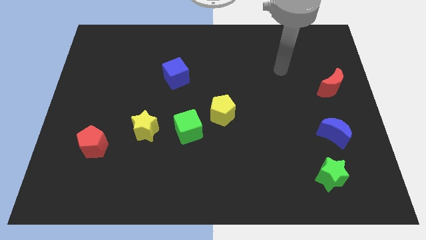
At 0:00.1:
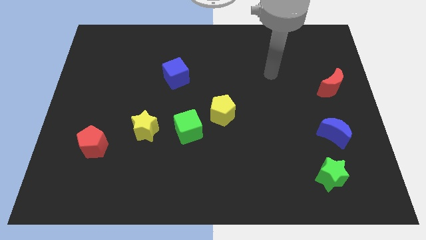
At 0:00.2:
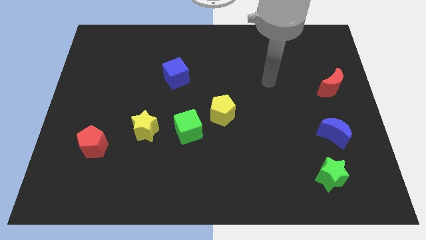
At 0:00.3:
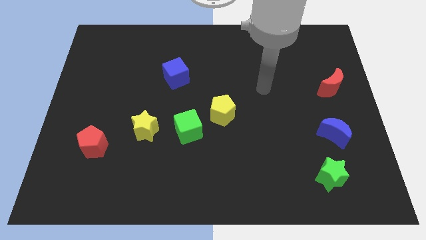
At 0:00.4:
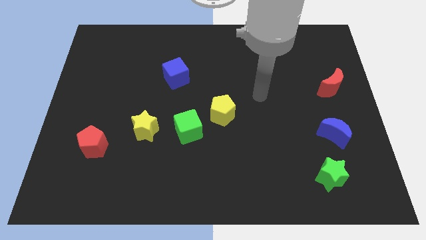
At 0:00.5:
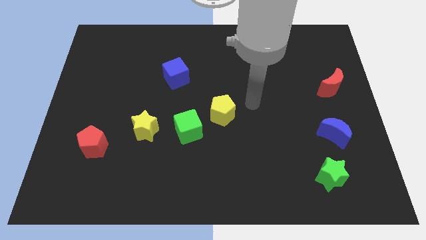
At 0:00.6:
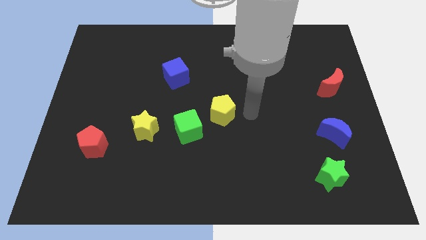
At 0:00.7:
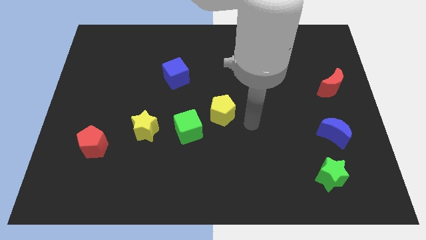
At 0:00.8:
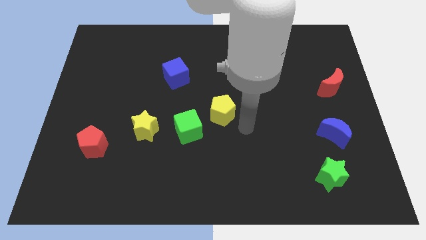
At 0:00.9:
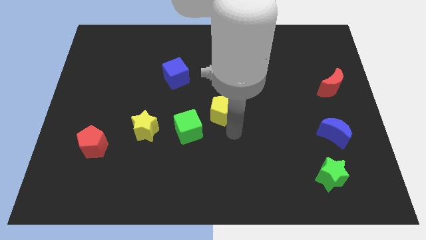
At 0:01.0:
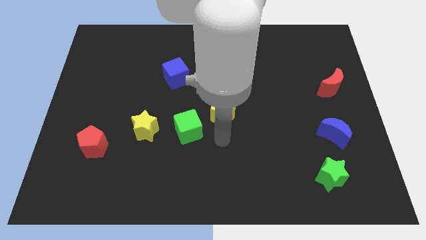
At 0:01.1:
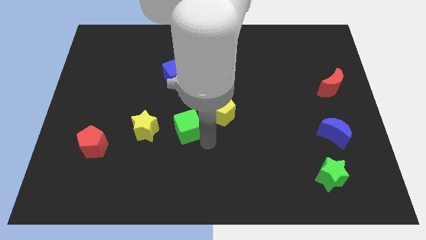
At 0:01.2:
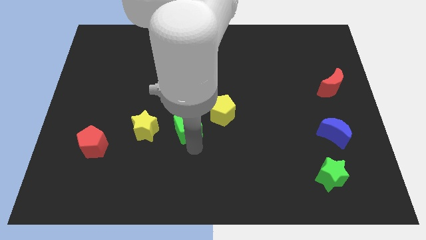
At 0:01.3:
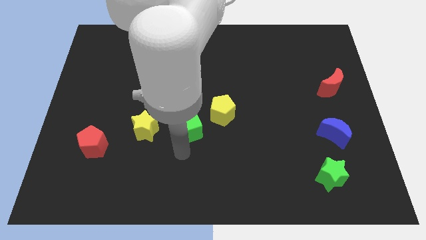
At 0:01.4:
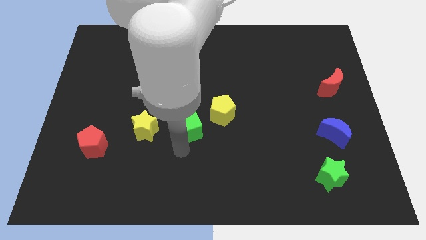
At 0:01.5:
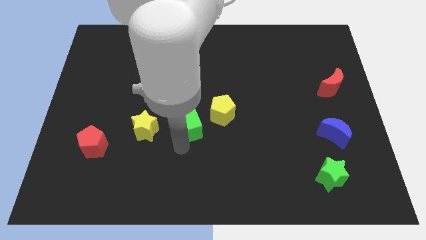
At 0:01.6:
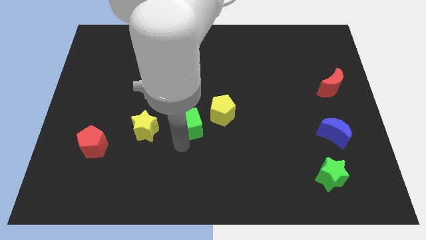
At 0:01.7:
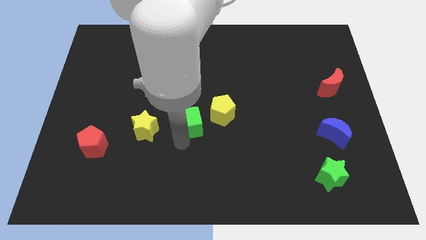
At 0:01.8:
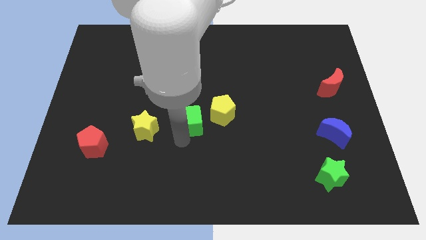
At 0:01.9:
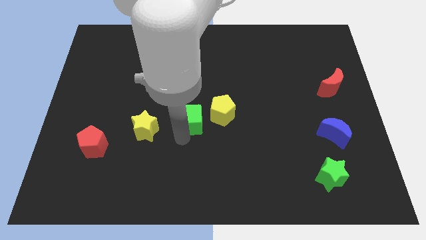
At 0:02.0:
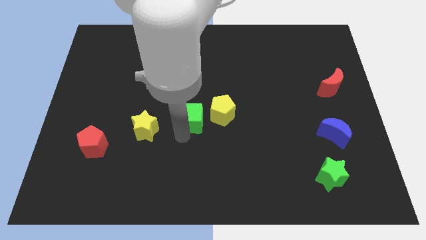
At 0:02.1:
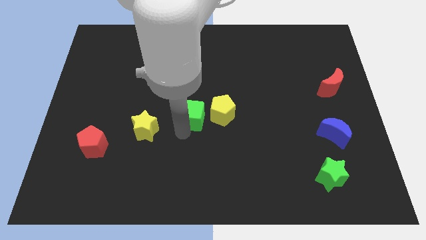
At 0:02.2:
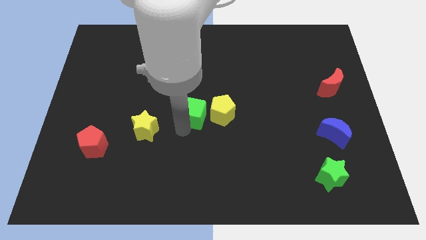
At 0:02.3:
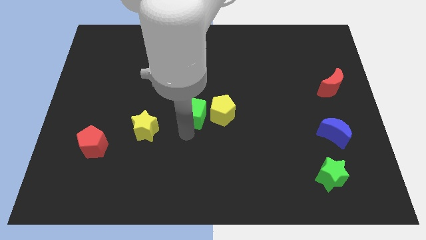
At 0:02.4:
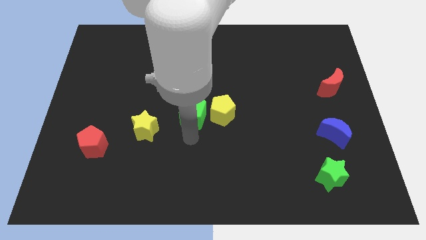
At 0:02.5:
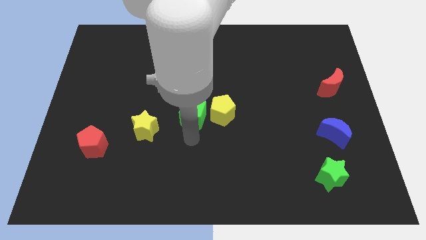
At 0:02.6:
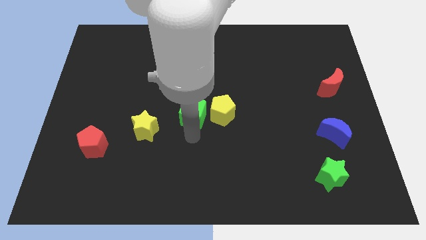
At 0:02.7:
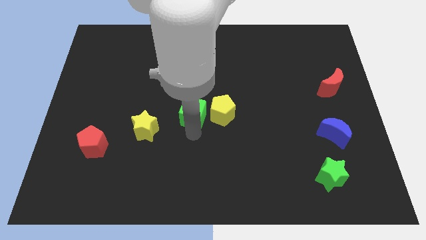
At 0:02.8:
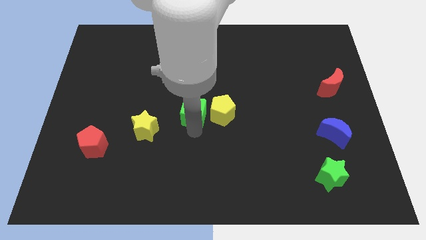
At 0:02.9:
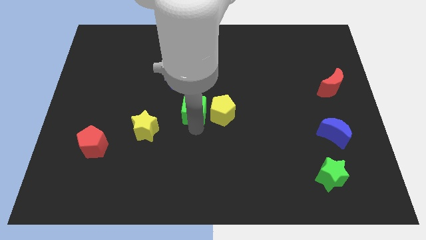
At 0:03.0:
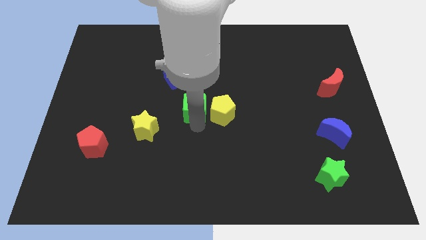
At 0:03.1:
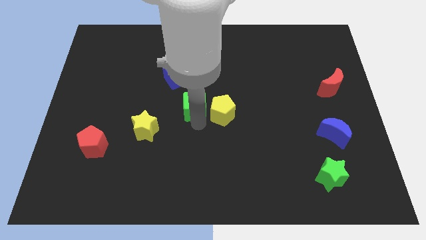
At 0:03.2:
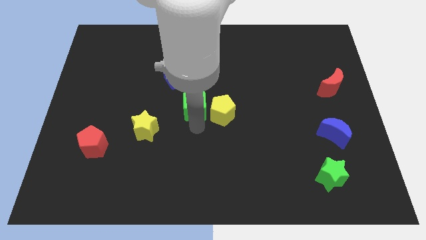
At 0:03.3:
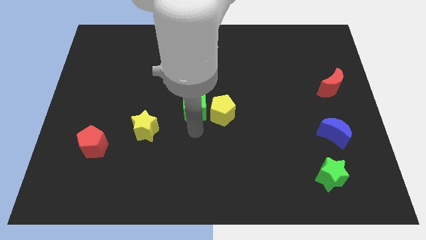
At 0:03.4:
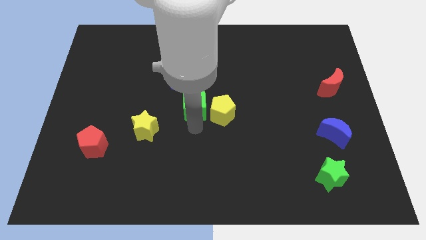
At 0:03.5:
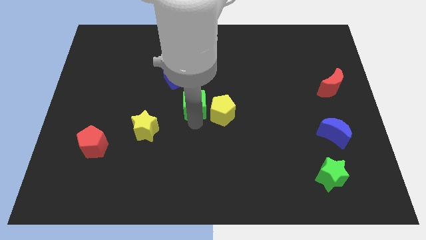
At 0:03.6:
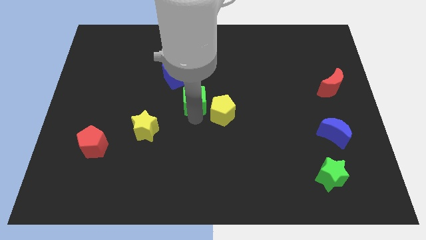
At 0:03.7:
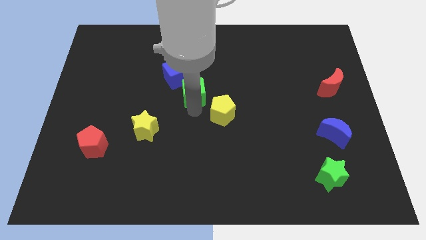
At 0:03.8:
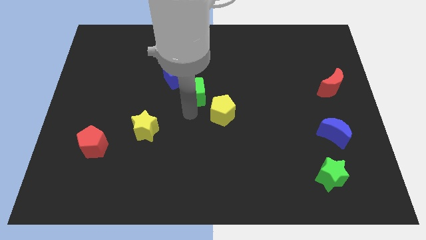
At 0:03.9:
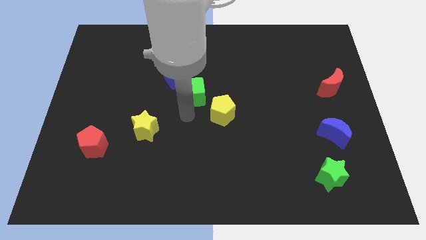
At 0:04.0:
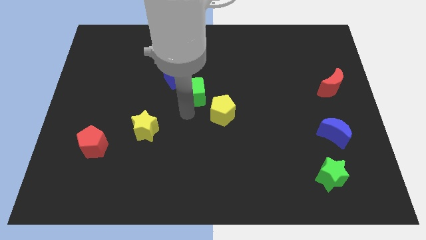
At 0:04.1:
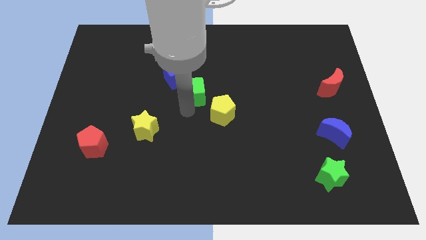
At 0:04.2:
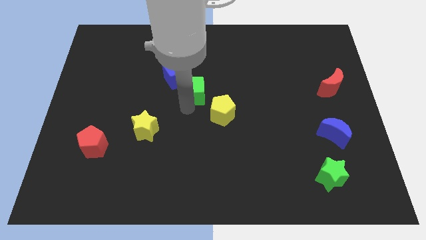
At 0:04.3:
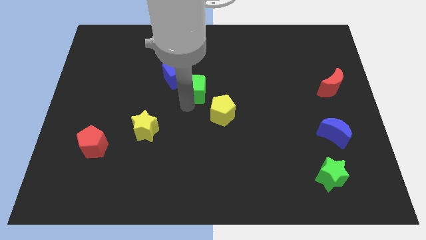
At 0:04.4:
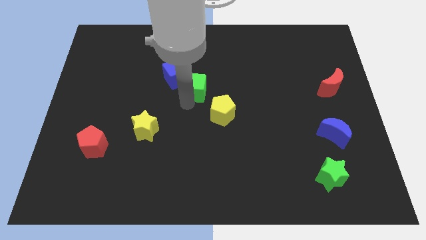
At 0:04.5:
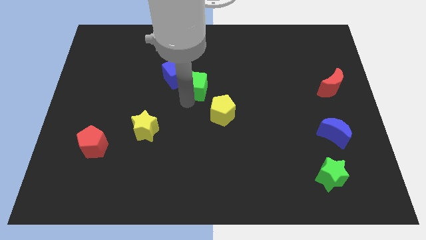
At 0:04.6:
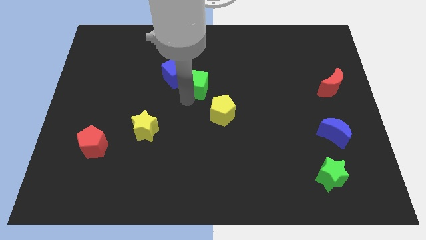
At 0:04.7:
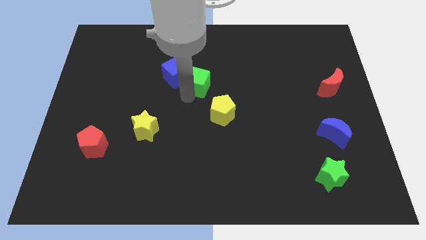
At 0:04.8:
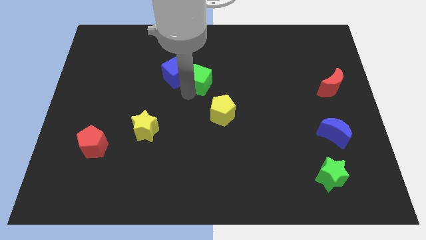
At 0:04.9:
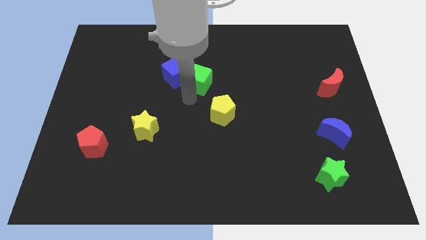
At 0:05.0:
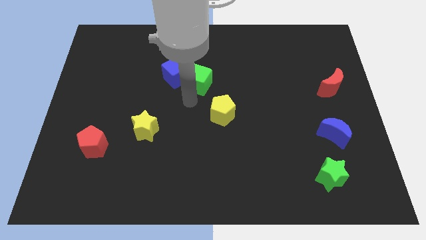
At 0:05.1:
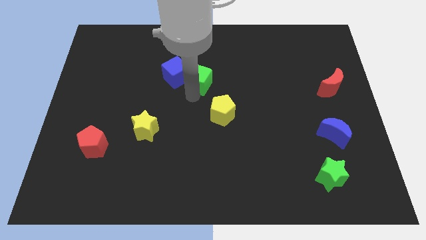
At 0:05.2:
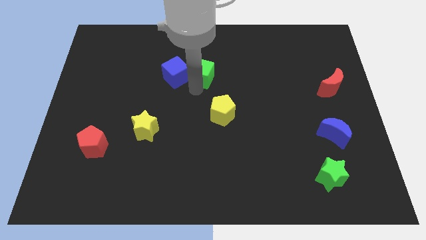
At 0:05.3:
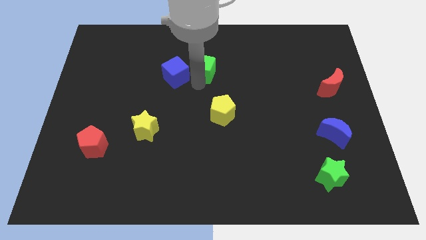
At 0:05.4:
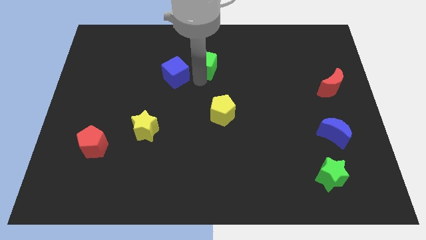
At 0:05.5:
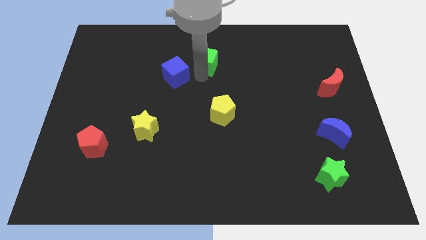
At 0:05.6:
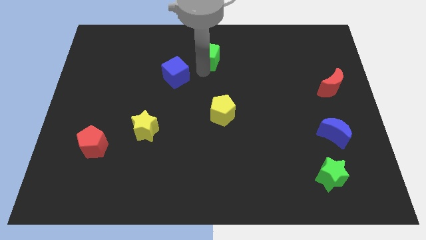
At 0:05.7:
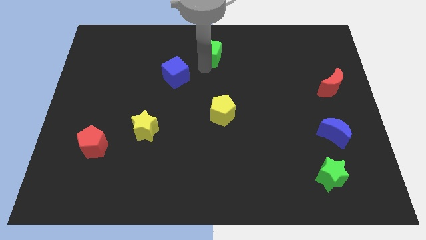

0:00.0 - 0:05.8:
slide the green cube to the towards your base

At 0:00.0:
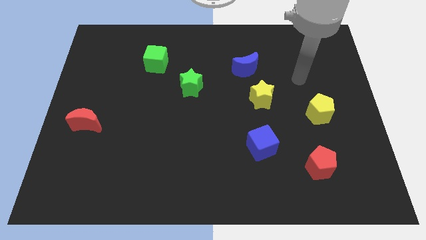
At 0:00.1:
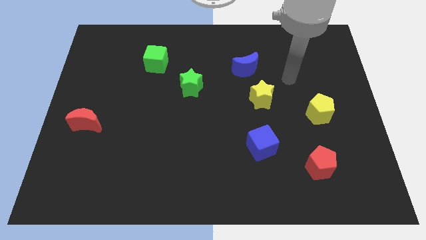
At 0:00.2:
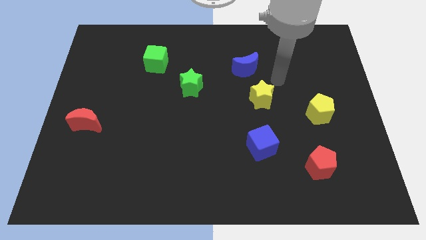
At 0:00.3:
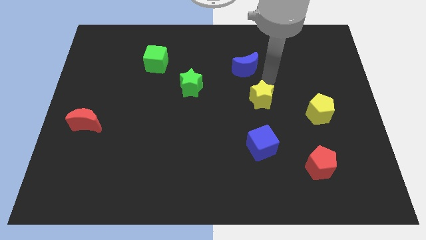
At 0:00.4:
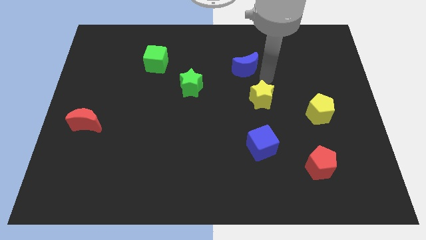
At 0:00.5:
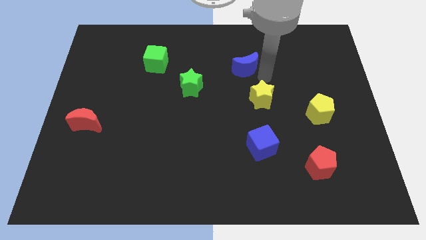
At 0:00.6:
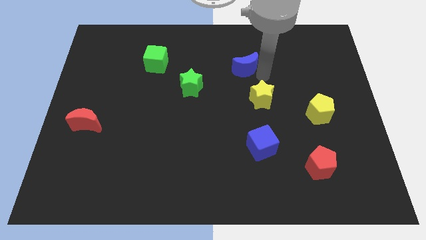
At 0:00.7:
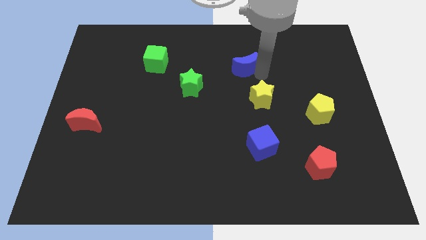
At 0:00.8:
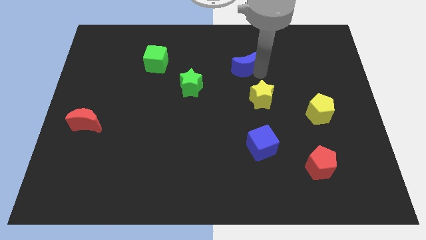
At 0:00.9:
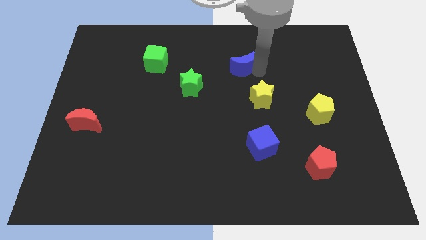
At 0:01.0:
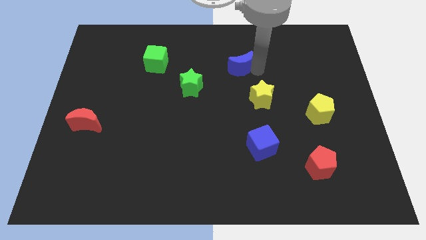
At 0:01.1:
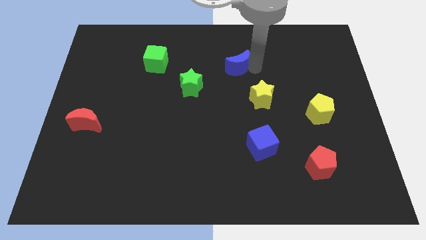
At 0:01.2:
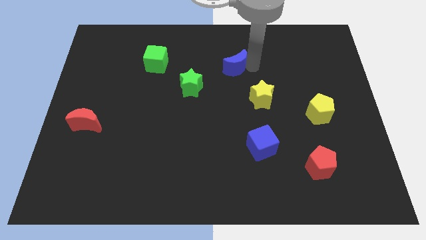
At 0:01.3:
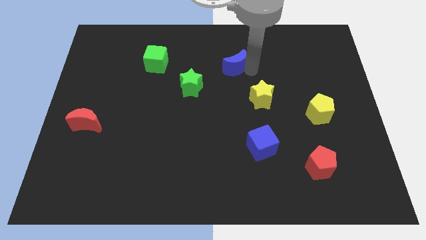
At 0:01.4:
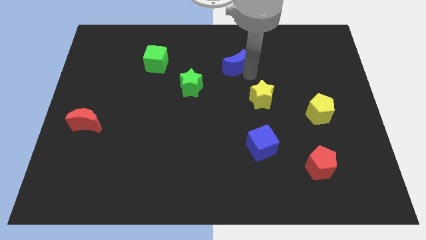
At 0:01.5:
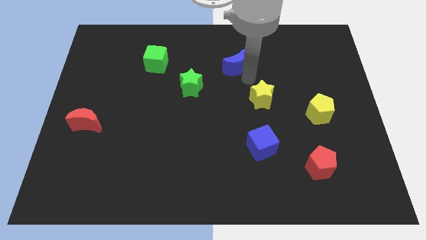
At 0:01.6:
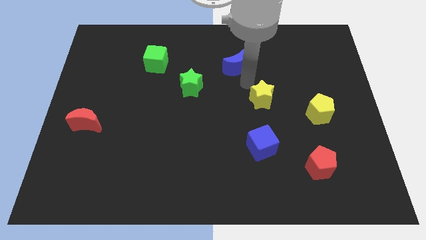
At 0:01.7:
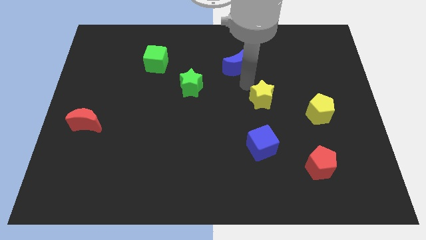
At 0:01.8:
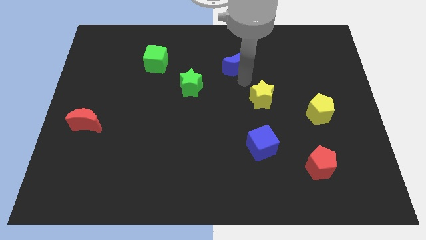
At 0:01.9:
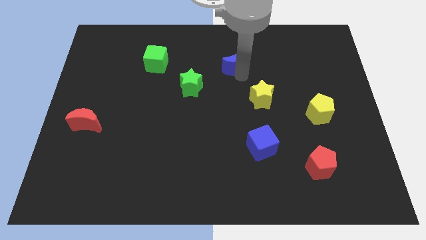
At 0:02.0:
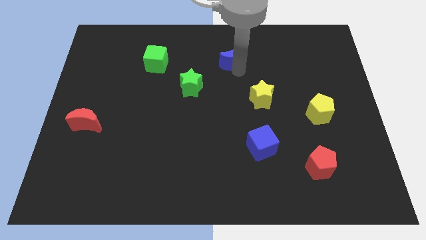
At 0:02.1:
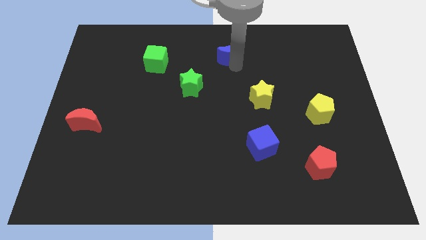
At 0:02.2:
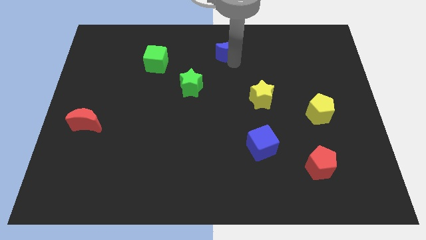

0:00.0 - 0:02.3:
move the blue moon to the top
